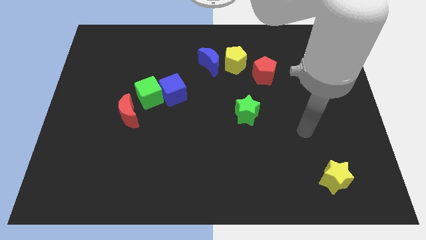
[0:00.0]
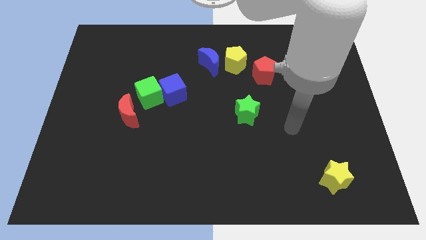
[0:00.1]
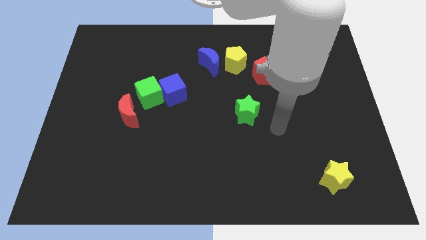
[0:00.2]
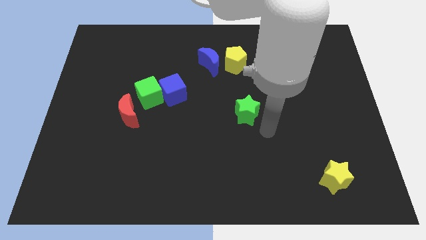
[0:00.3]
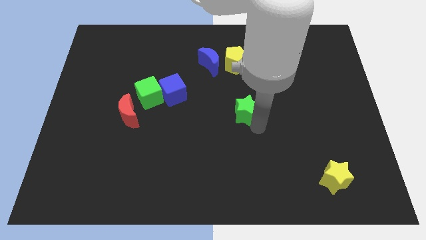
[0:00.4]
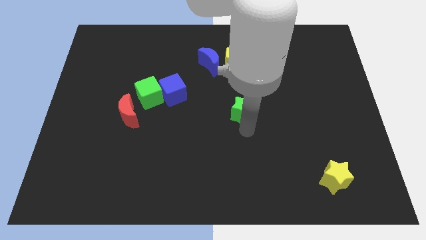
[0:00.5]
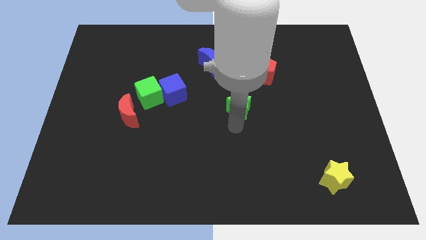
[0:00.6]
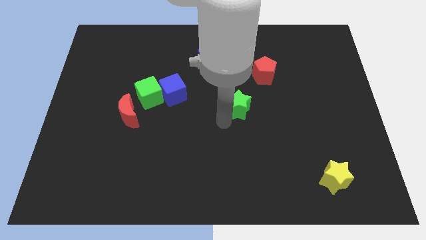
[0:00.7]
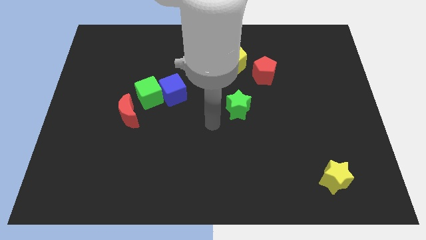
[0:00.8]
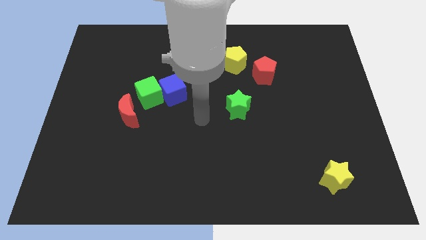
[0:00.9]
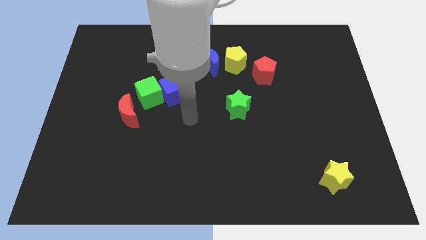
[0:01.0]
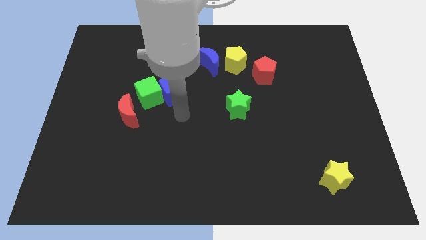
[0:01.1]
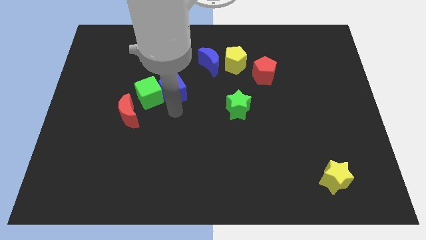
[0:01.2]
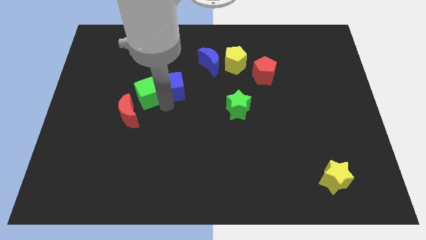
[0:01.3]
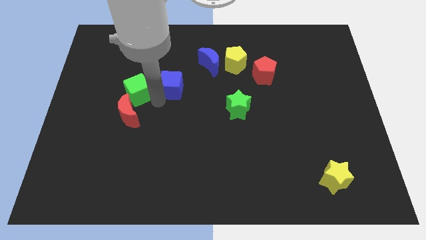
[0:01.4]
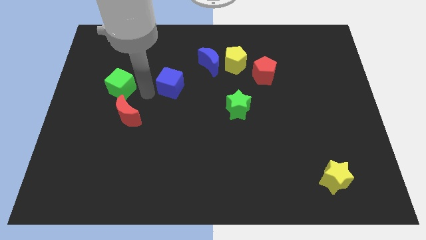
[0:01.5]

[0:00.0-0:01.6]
move the blue cube away from the green cube

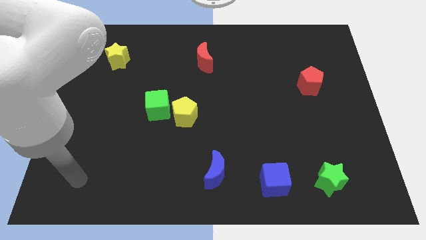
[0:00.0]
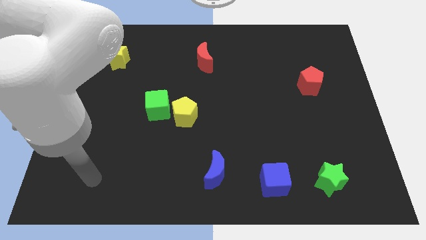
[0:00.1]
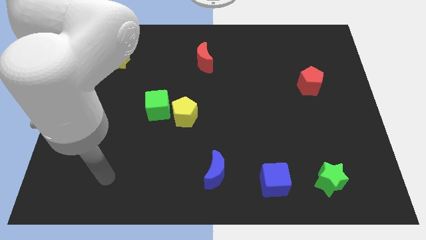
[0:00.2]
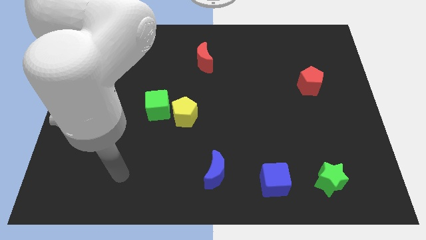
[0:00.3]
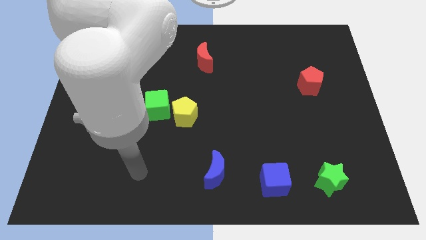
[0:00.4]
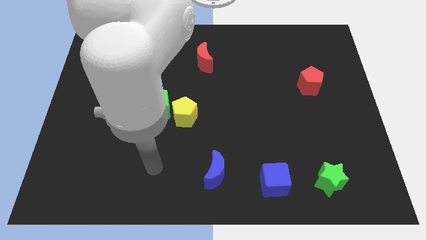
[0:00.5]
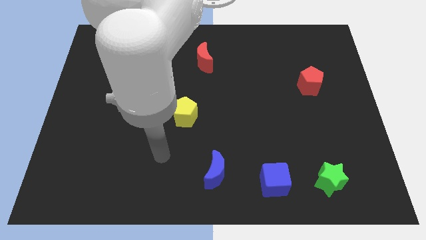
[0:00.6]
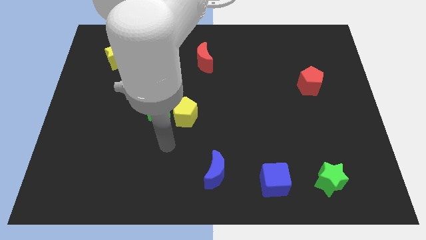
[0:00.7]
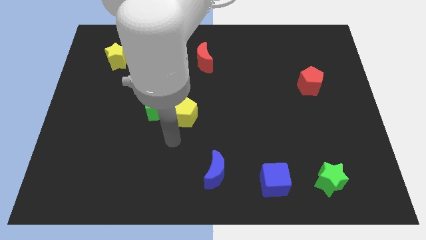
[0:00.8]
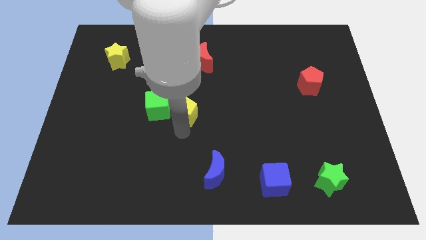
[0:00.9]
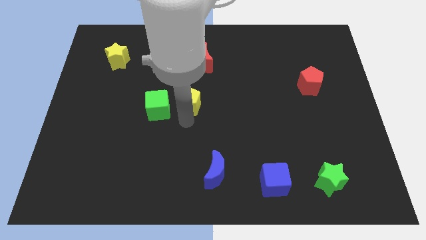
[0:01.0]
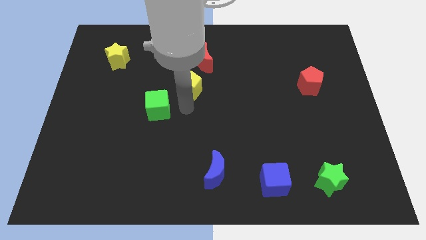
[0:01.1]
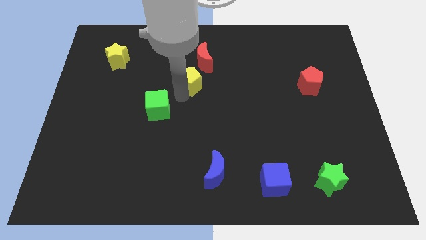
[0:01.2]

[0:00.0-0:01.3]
move the green cube away from the yellow pentagon

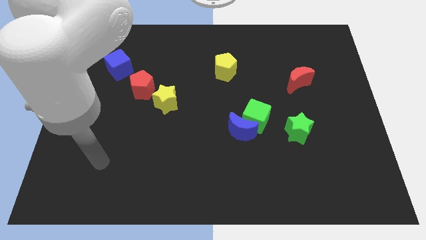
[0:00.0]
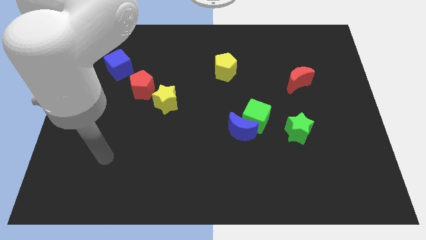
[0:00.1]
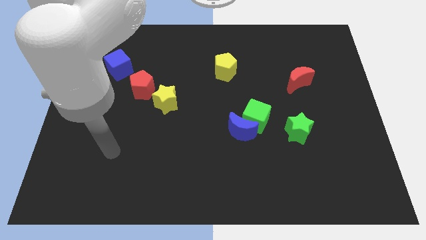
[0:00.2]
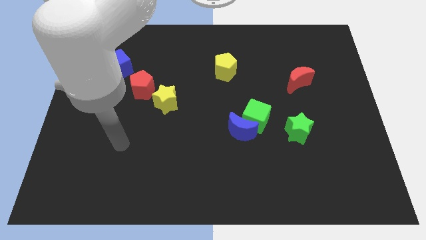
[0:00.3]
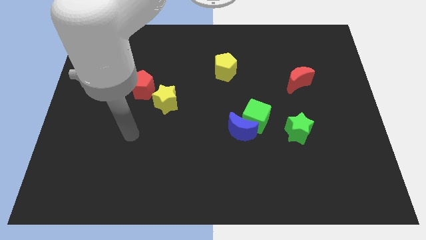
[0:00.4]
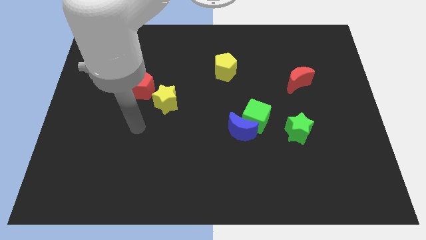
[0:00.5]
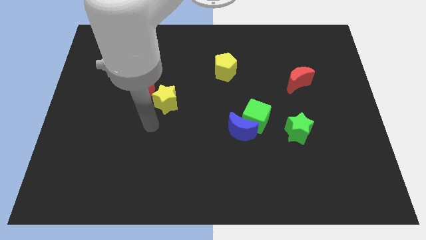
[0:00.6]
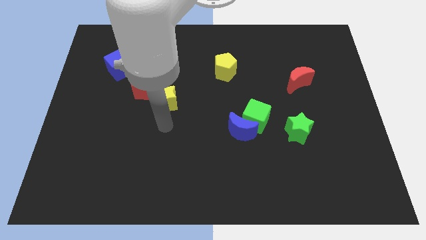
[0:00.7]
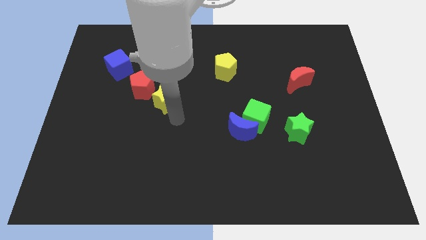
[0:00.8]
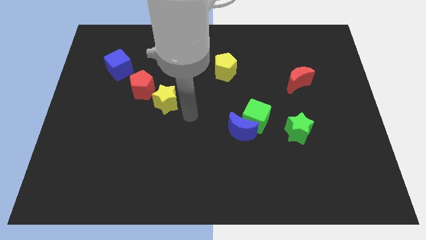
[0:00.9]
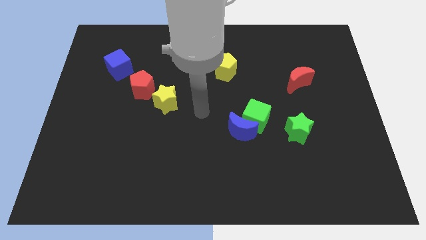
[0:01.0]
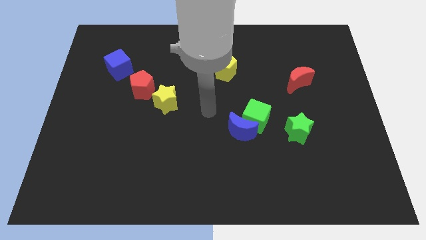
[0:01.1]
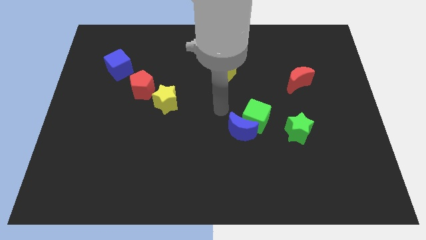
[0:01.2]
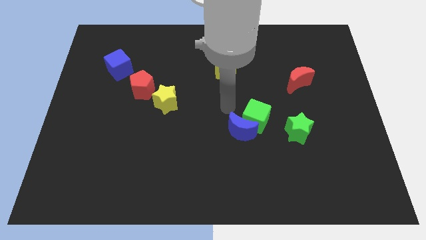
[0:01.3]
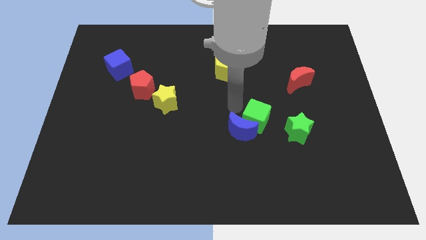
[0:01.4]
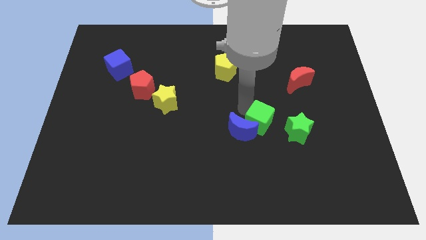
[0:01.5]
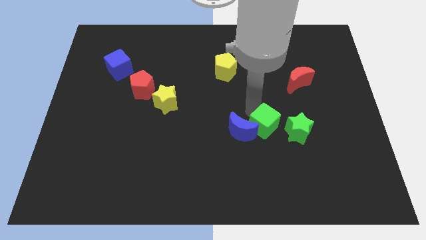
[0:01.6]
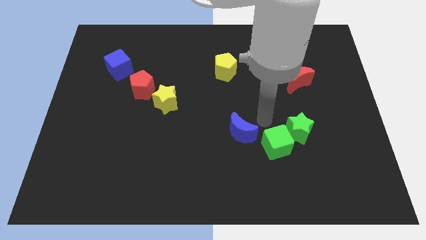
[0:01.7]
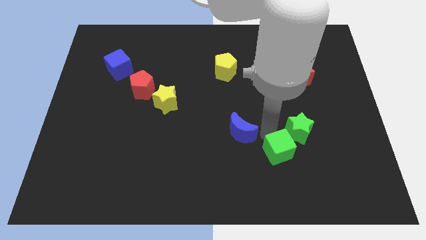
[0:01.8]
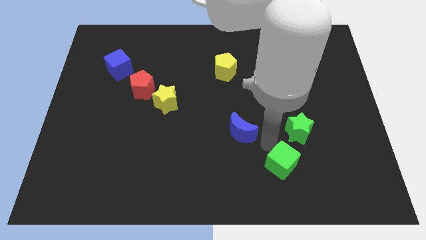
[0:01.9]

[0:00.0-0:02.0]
pull the blue moon apart from the green cube

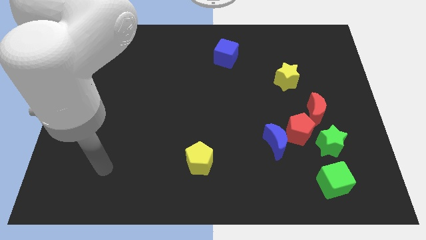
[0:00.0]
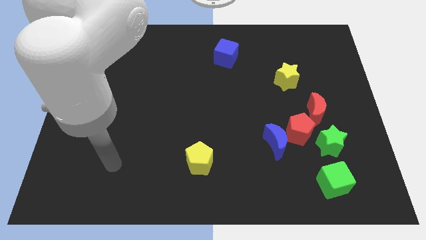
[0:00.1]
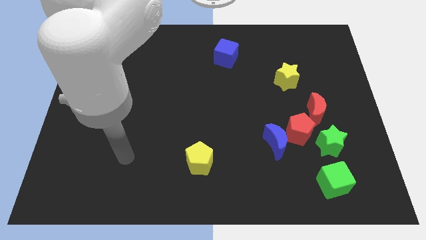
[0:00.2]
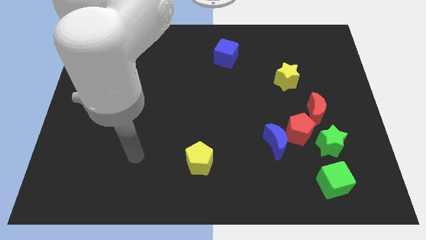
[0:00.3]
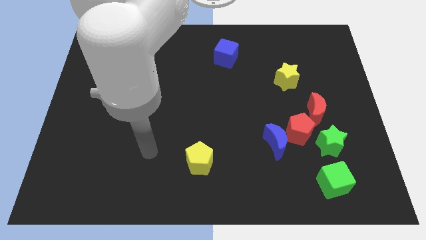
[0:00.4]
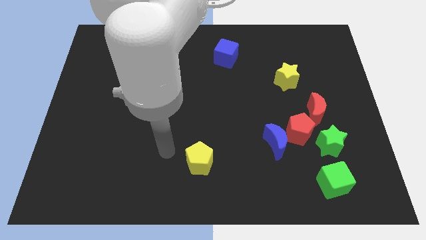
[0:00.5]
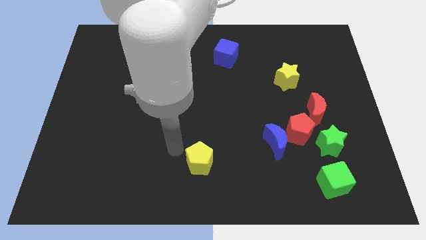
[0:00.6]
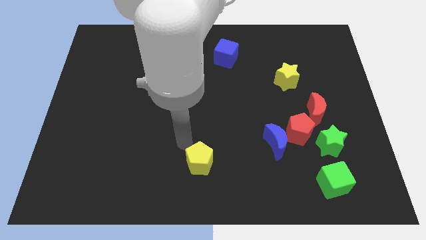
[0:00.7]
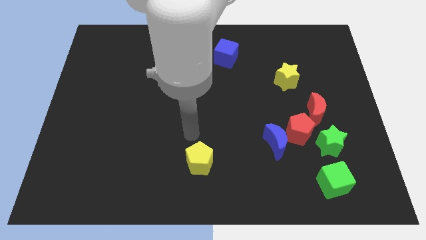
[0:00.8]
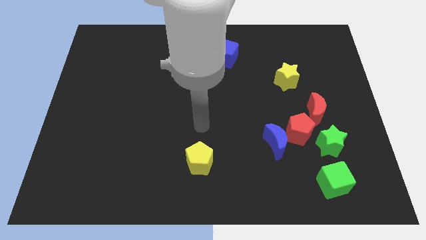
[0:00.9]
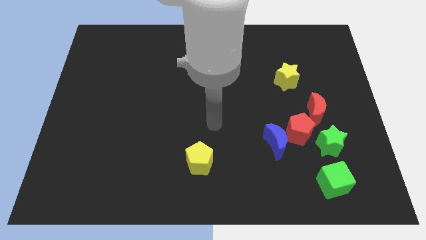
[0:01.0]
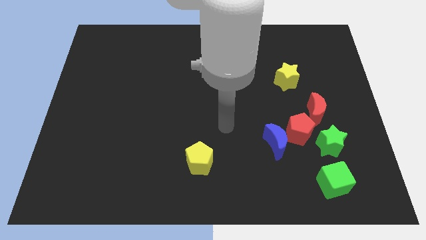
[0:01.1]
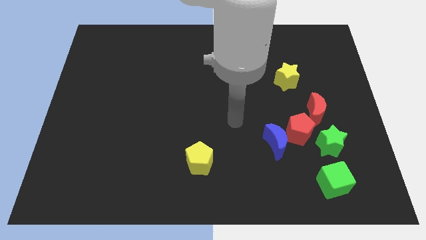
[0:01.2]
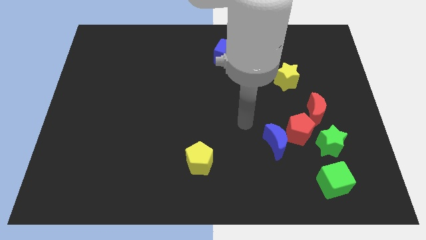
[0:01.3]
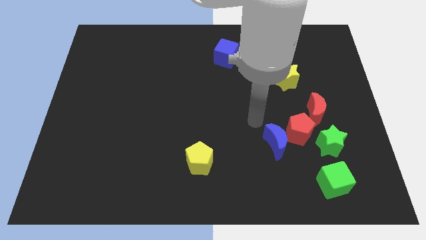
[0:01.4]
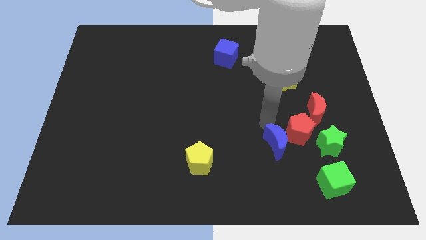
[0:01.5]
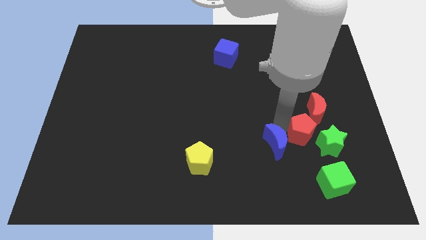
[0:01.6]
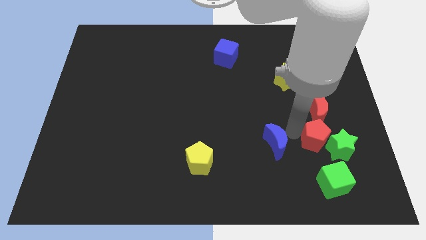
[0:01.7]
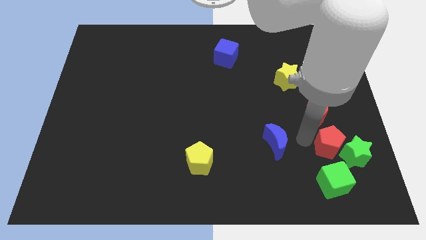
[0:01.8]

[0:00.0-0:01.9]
move the blue moon away from the red pentagon

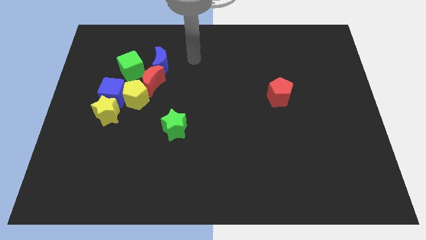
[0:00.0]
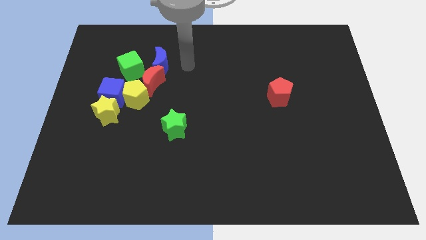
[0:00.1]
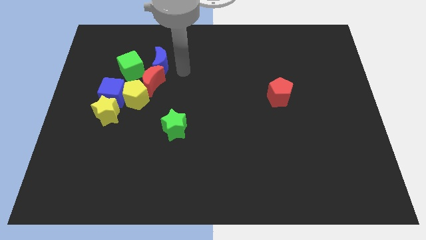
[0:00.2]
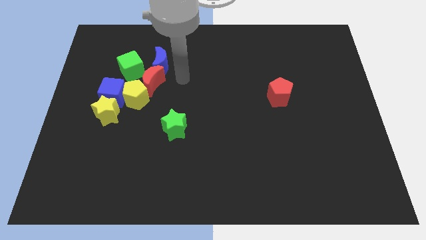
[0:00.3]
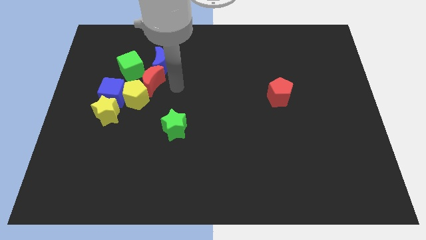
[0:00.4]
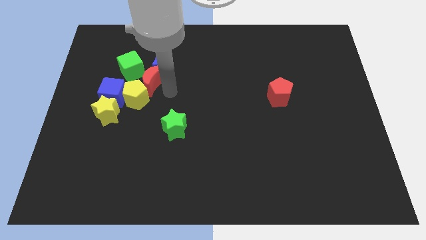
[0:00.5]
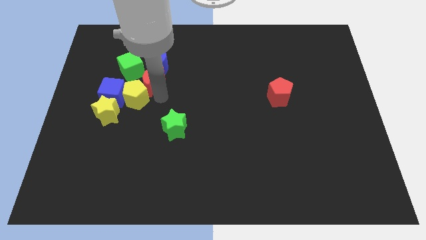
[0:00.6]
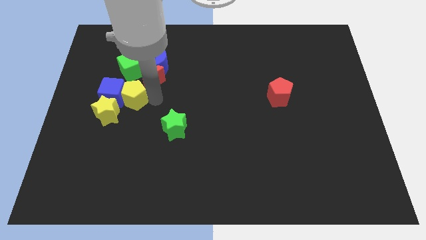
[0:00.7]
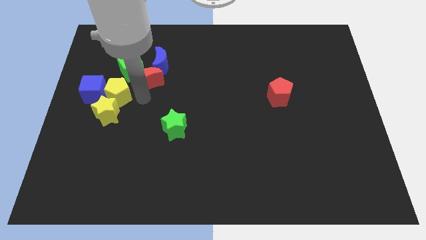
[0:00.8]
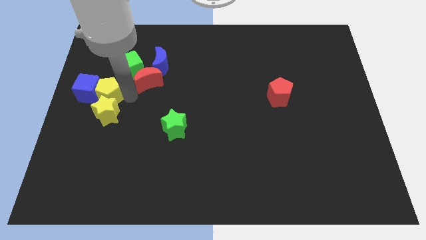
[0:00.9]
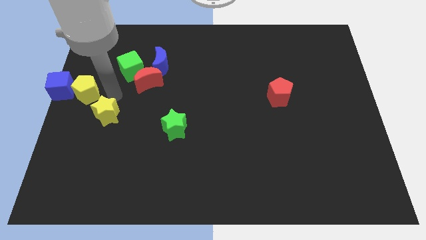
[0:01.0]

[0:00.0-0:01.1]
move the yellow star away from the blue cube and yellow pentagon

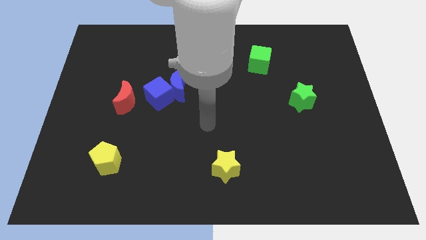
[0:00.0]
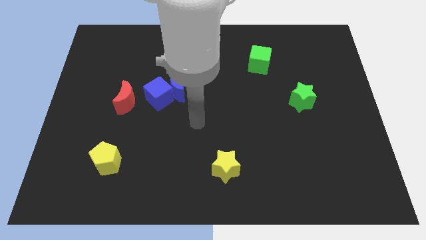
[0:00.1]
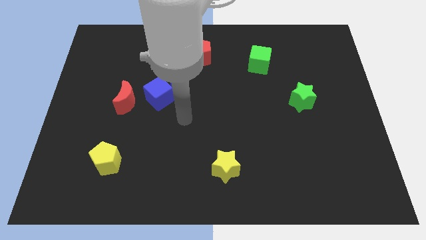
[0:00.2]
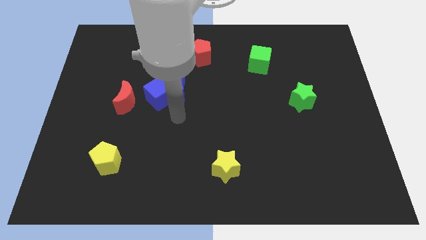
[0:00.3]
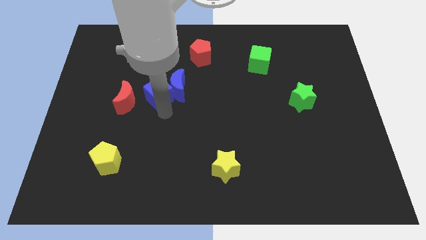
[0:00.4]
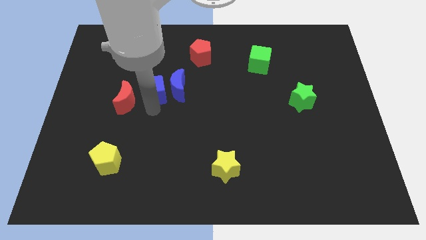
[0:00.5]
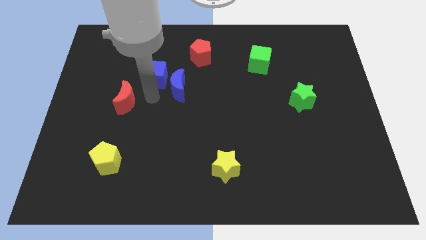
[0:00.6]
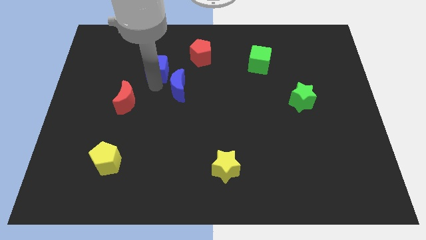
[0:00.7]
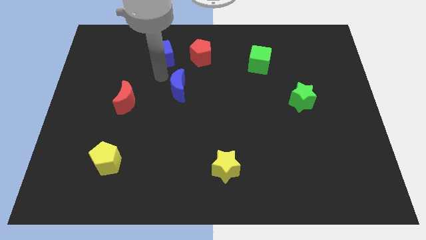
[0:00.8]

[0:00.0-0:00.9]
separate the blue moon from the blue cube

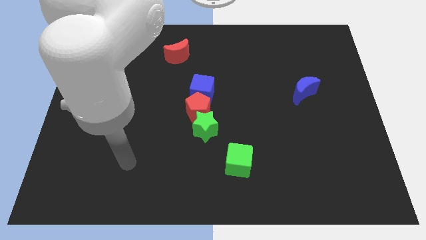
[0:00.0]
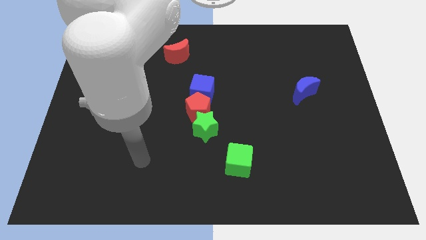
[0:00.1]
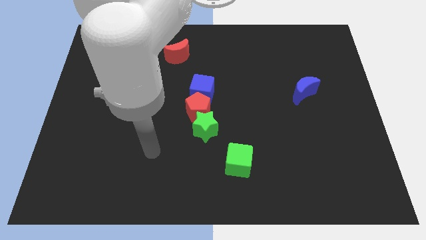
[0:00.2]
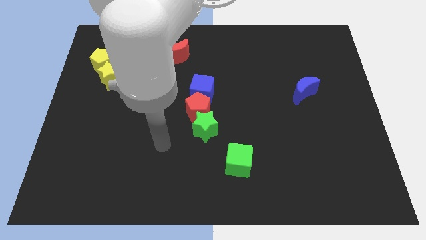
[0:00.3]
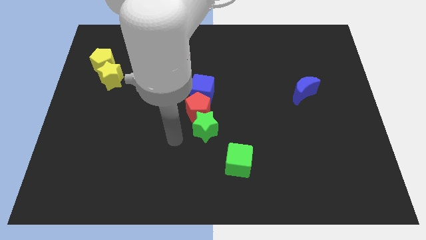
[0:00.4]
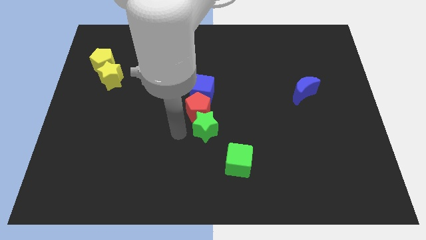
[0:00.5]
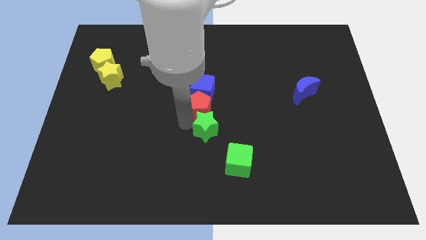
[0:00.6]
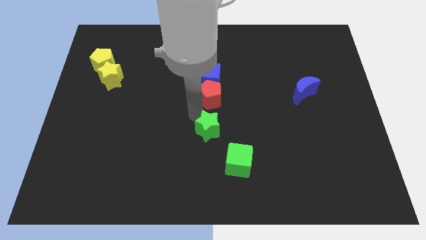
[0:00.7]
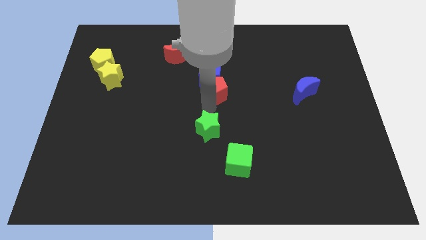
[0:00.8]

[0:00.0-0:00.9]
move the green star away from the red pentagon
